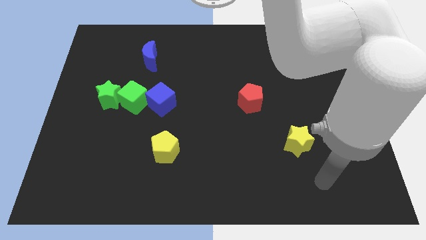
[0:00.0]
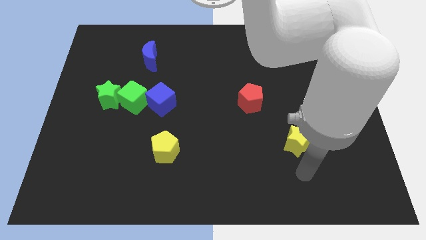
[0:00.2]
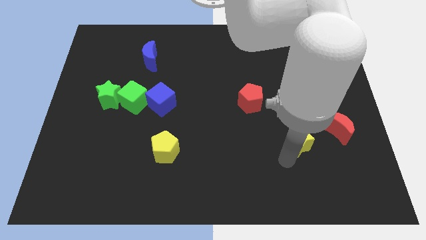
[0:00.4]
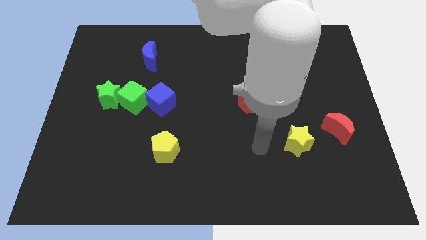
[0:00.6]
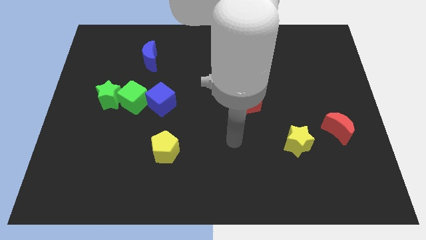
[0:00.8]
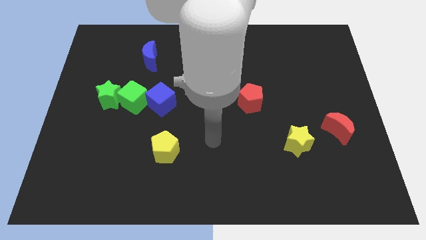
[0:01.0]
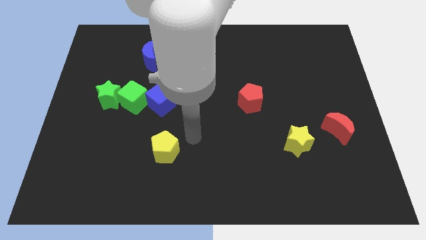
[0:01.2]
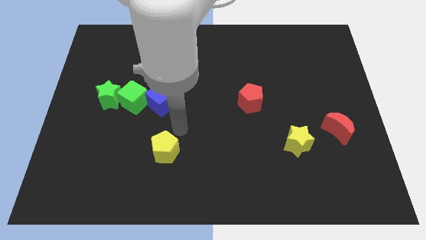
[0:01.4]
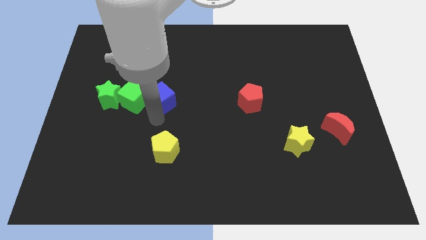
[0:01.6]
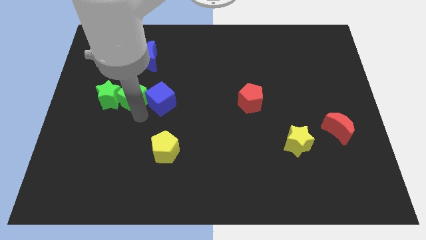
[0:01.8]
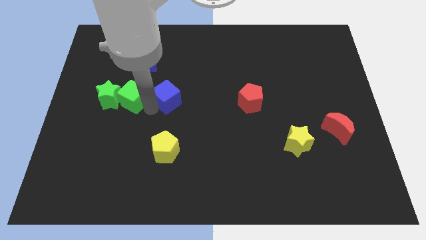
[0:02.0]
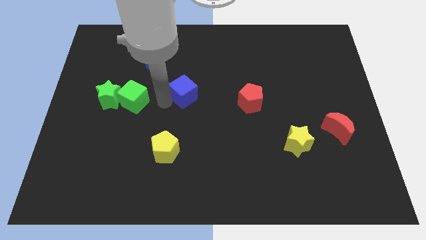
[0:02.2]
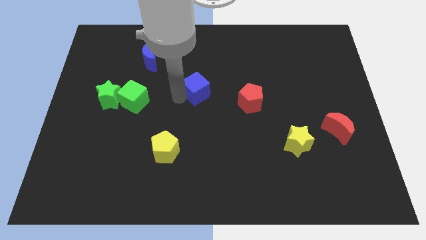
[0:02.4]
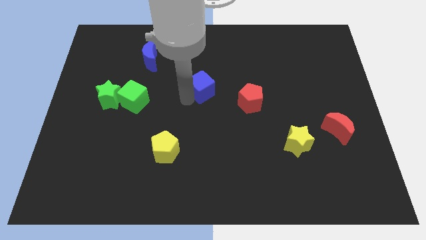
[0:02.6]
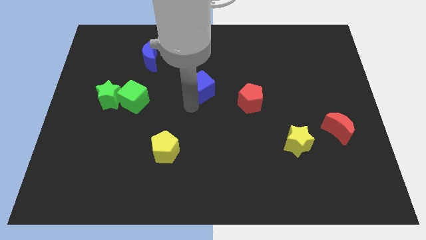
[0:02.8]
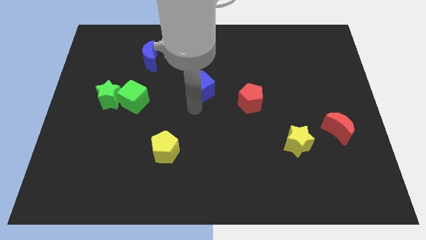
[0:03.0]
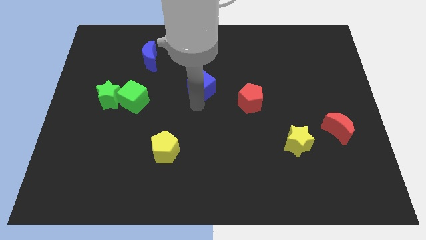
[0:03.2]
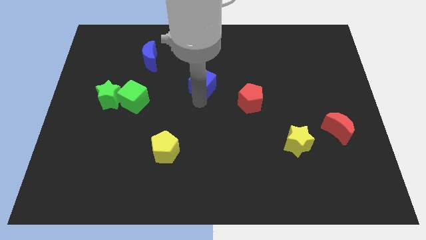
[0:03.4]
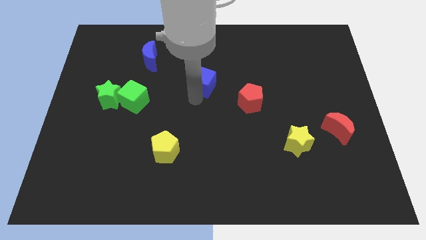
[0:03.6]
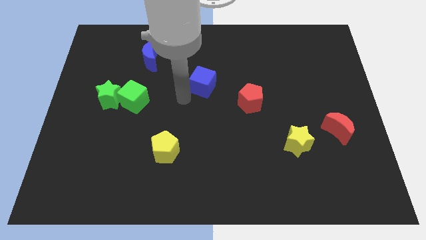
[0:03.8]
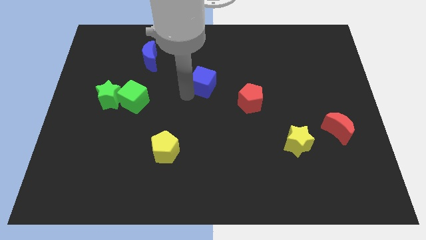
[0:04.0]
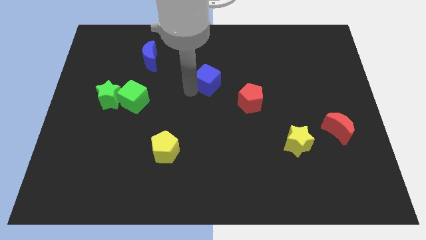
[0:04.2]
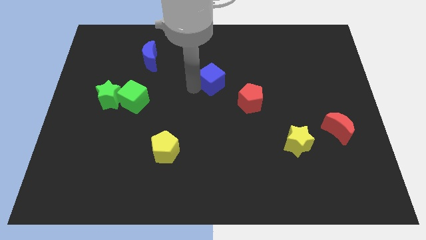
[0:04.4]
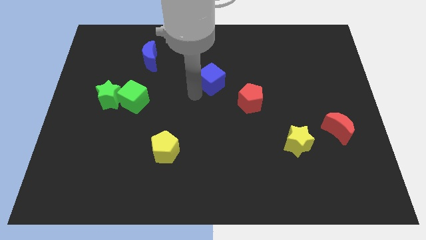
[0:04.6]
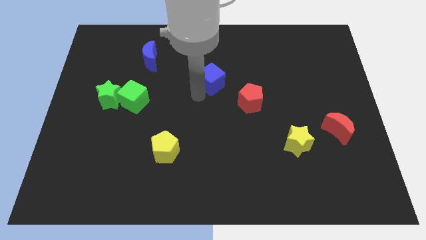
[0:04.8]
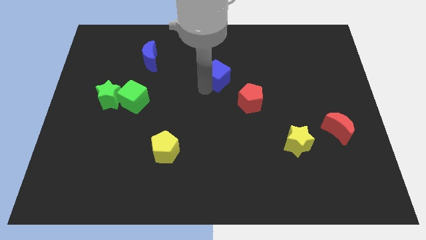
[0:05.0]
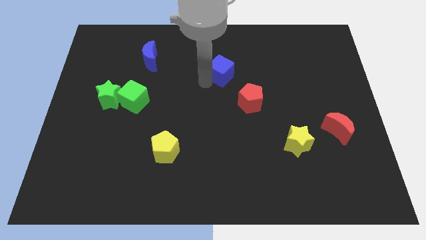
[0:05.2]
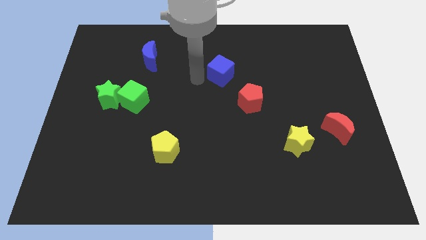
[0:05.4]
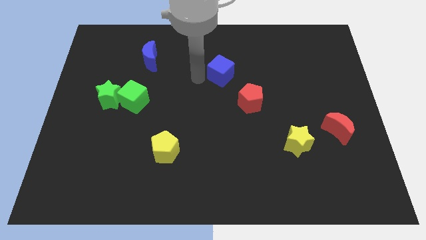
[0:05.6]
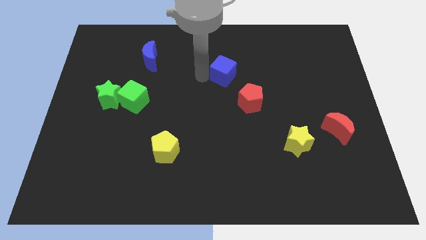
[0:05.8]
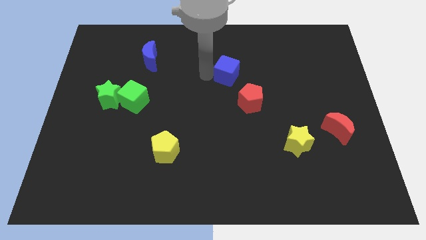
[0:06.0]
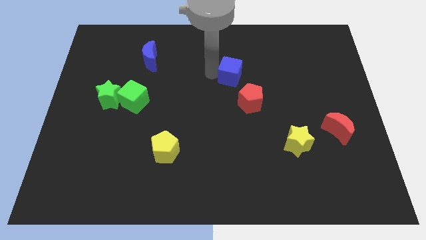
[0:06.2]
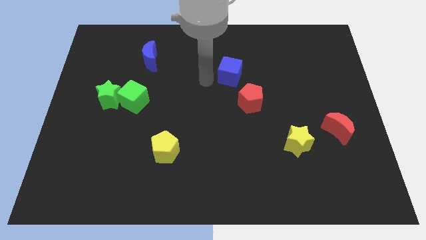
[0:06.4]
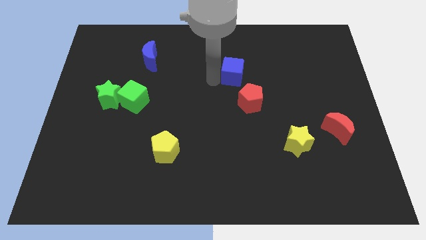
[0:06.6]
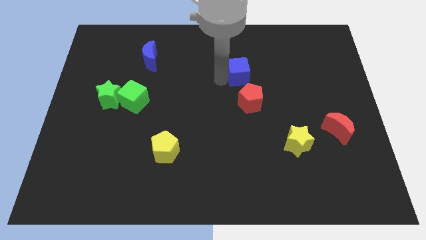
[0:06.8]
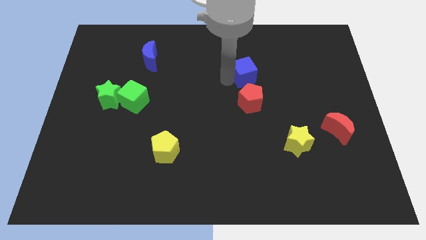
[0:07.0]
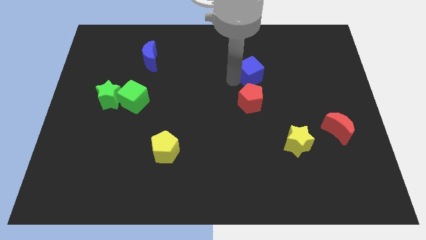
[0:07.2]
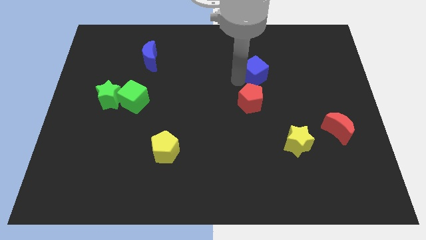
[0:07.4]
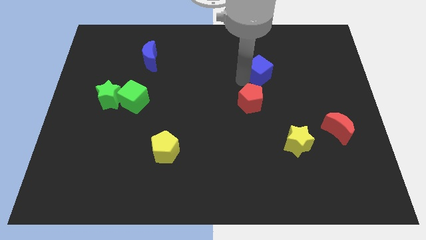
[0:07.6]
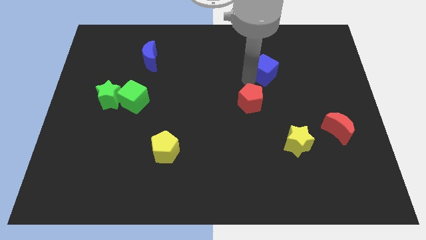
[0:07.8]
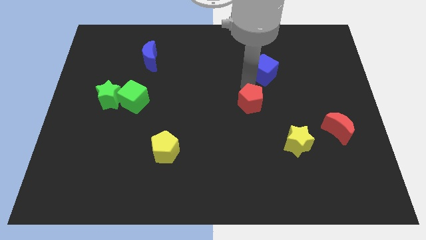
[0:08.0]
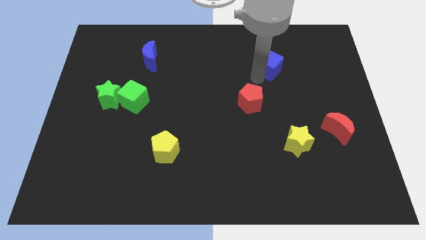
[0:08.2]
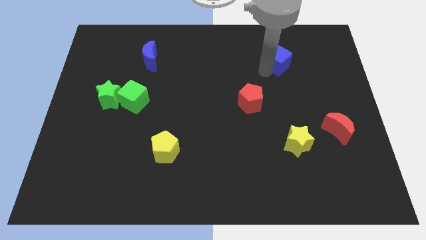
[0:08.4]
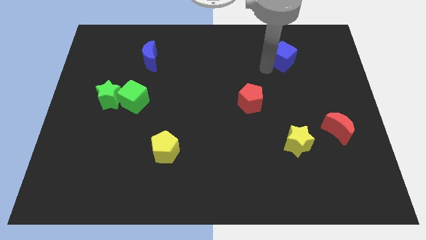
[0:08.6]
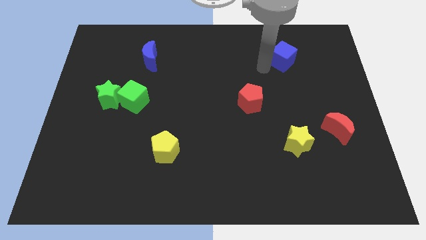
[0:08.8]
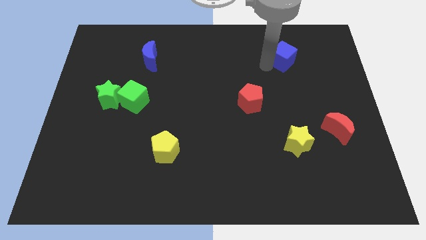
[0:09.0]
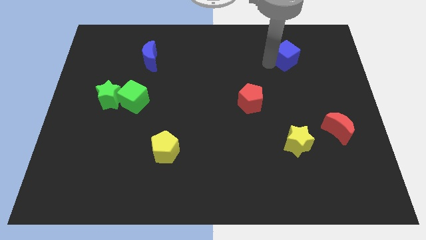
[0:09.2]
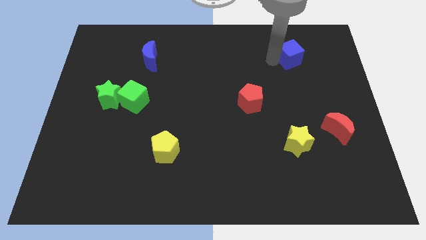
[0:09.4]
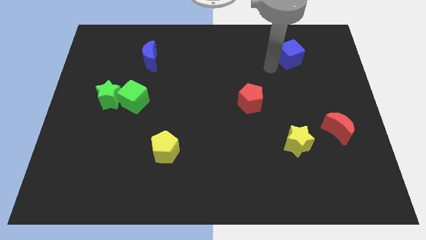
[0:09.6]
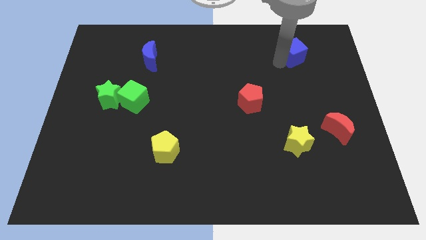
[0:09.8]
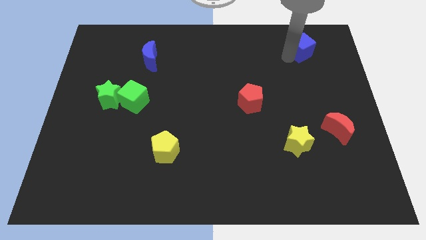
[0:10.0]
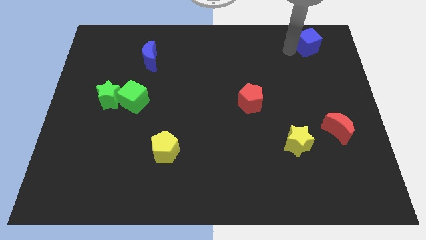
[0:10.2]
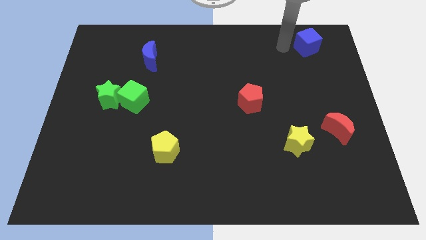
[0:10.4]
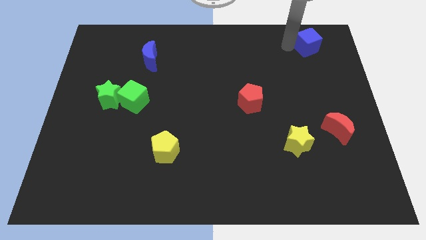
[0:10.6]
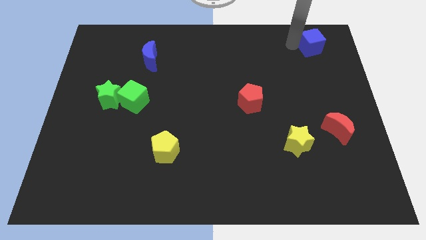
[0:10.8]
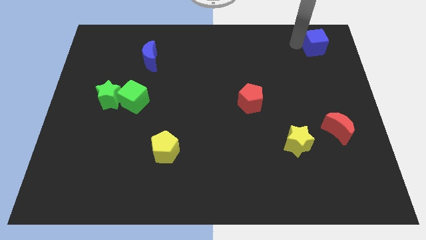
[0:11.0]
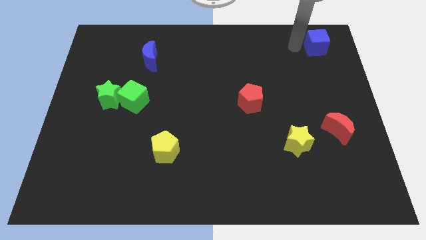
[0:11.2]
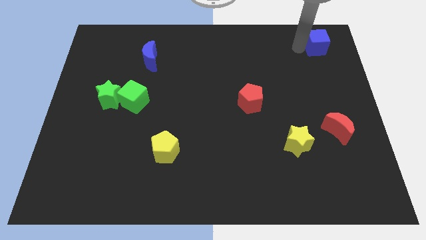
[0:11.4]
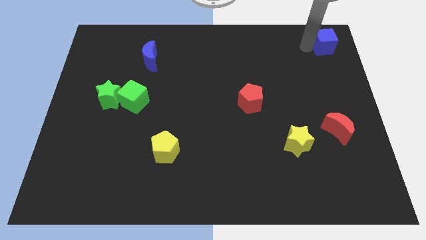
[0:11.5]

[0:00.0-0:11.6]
slide the blue cube to the upper right corner
